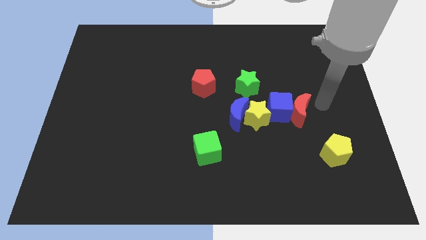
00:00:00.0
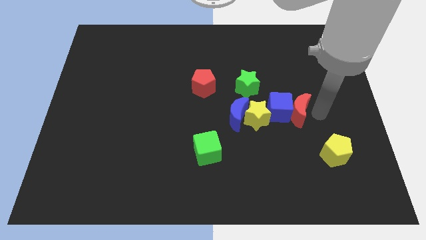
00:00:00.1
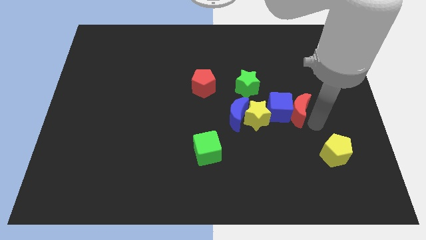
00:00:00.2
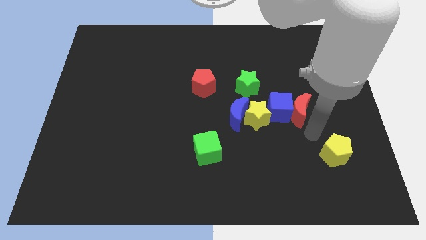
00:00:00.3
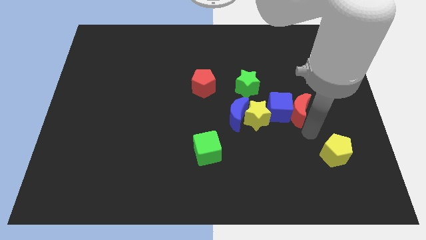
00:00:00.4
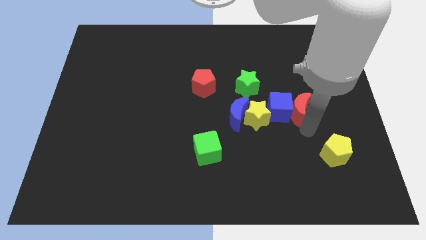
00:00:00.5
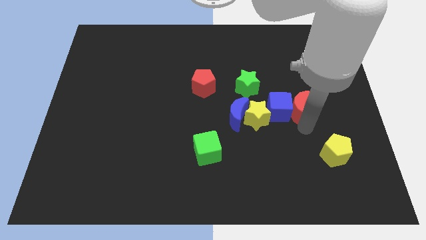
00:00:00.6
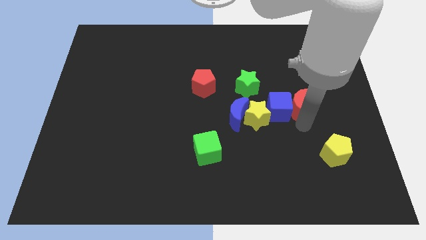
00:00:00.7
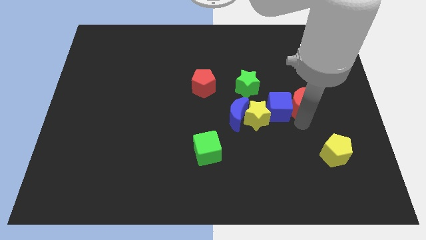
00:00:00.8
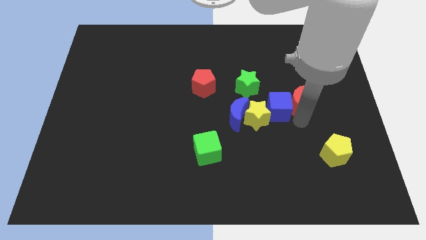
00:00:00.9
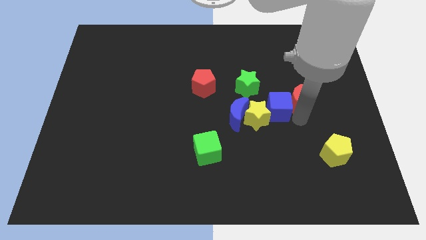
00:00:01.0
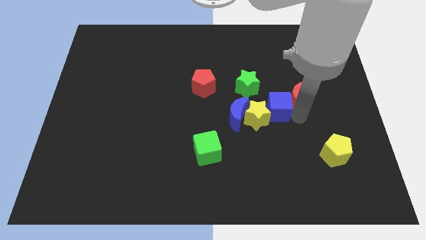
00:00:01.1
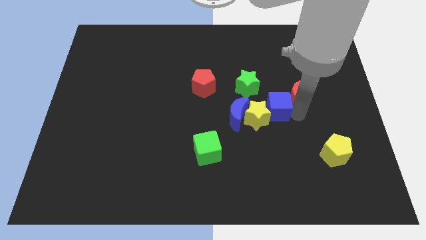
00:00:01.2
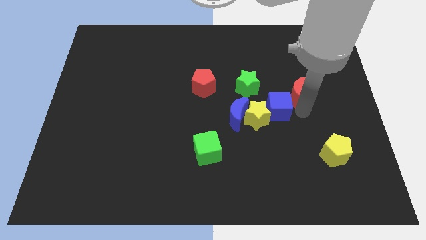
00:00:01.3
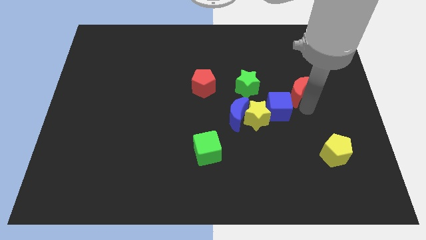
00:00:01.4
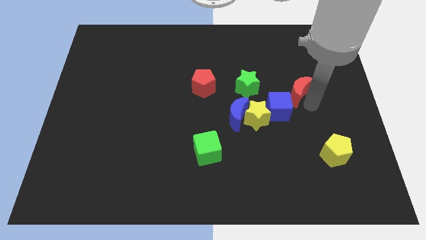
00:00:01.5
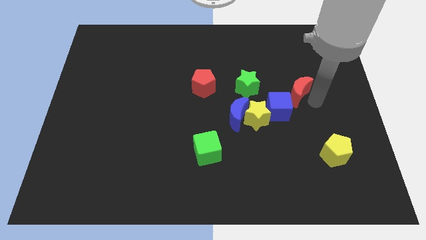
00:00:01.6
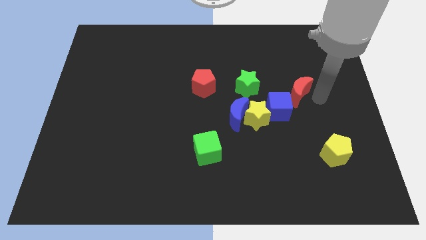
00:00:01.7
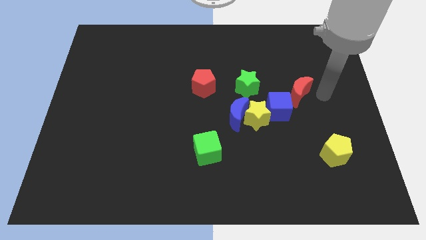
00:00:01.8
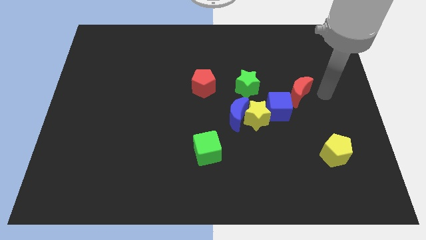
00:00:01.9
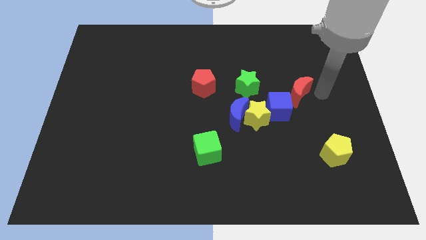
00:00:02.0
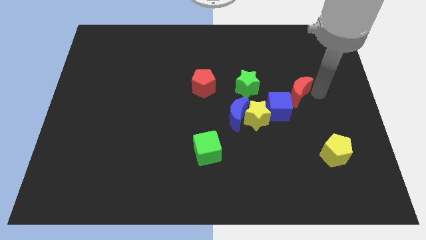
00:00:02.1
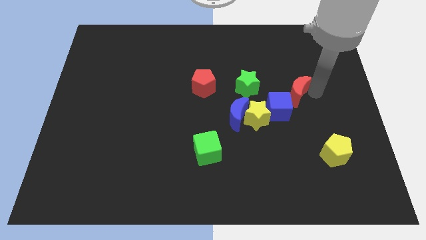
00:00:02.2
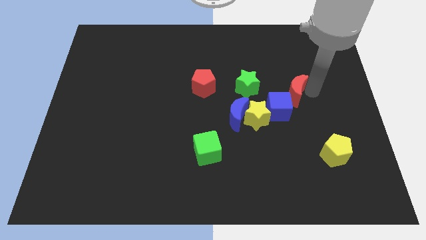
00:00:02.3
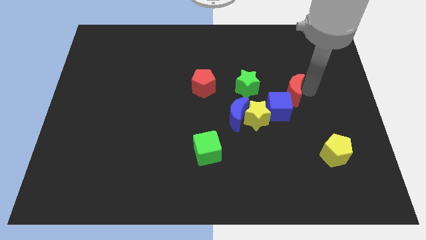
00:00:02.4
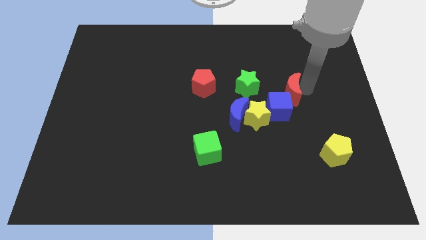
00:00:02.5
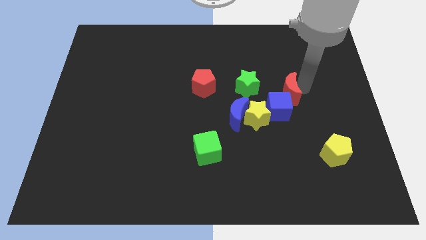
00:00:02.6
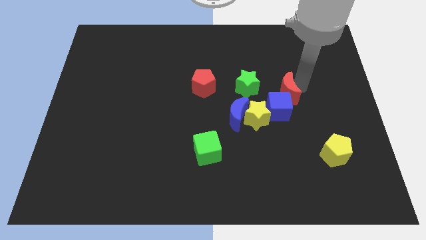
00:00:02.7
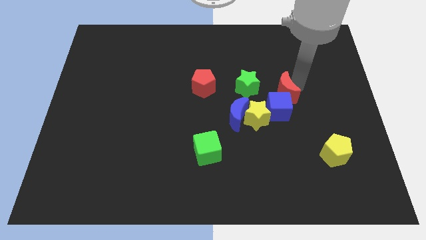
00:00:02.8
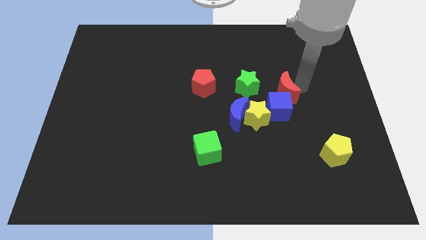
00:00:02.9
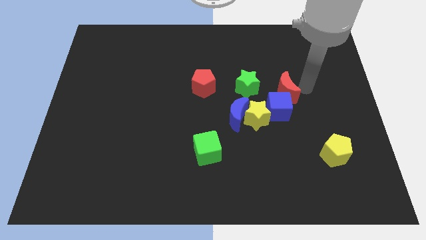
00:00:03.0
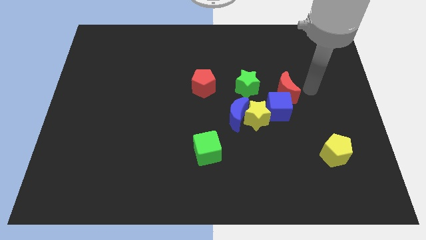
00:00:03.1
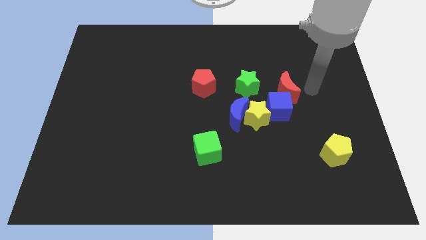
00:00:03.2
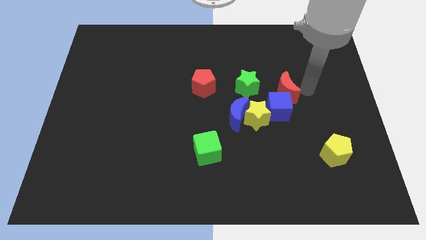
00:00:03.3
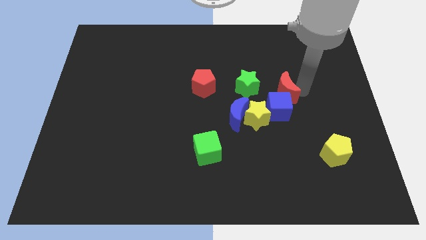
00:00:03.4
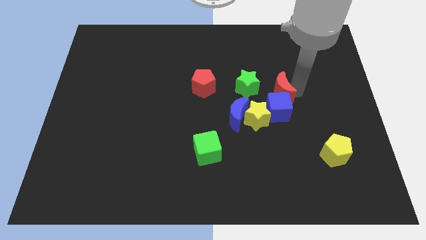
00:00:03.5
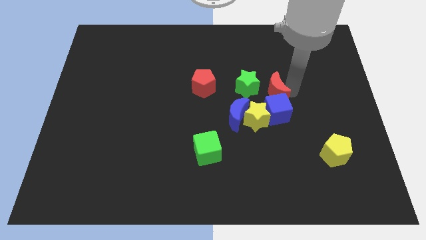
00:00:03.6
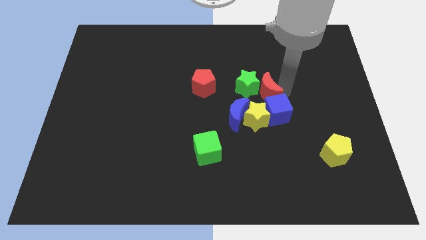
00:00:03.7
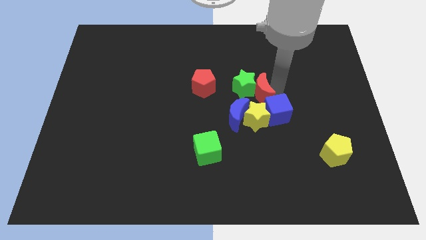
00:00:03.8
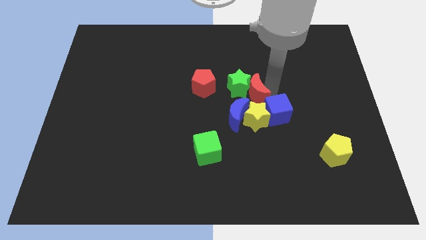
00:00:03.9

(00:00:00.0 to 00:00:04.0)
move the red moon slightly to the left

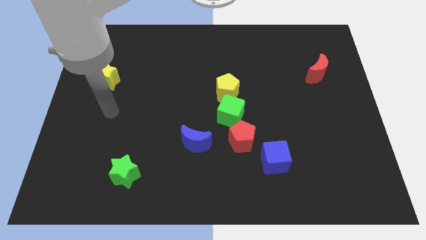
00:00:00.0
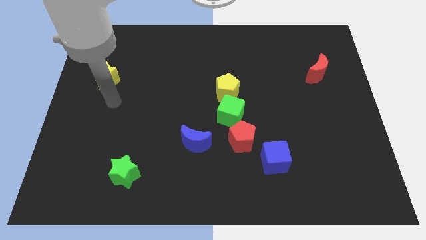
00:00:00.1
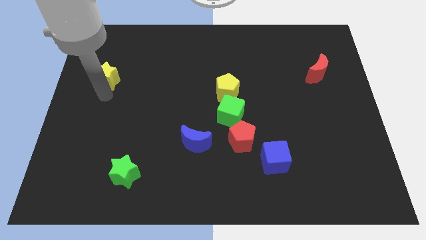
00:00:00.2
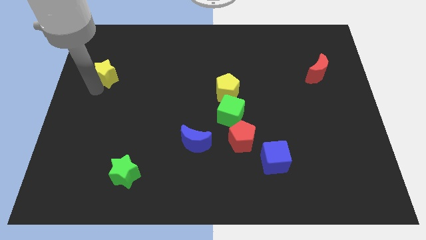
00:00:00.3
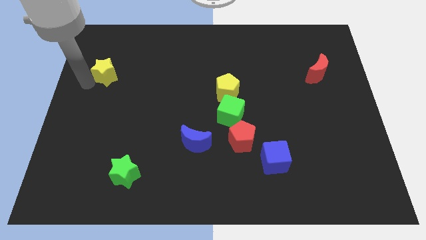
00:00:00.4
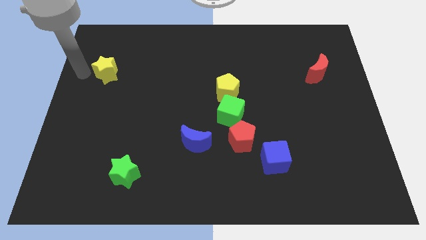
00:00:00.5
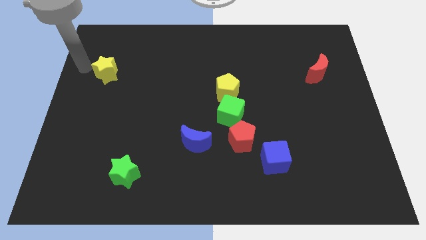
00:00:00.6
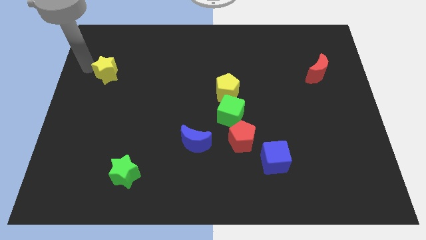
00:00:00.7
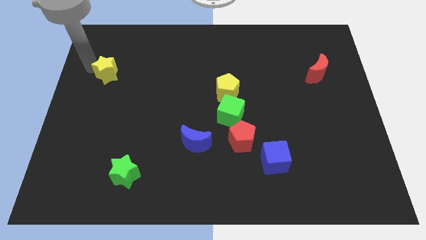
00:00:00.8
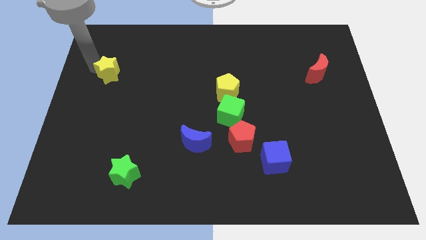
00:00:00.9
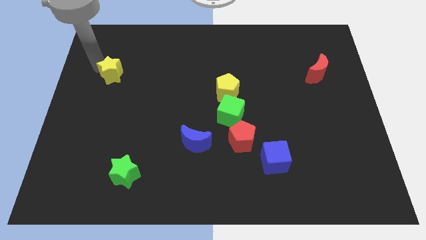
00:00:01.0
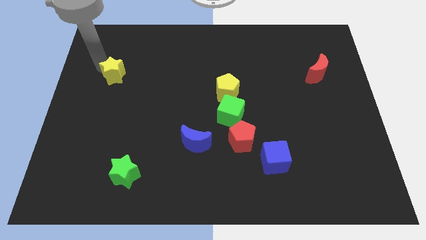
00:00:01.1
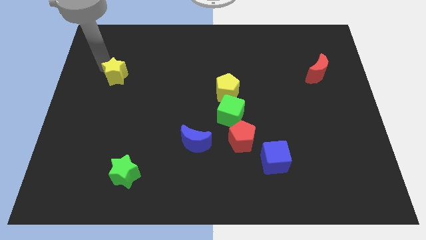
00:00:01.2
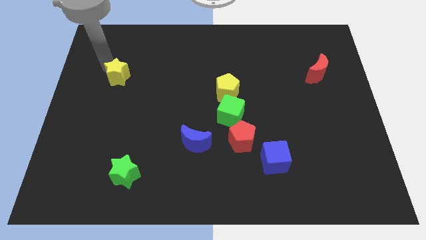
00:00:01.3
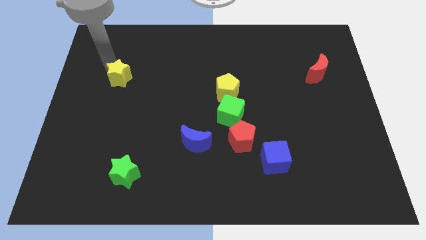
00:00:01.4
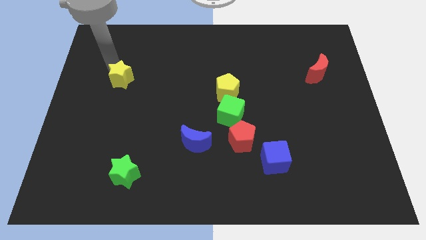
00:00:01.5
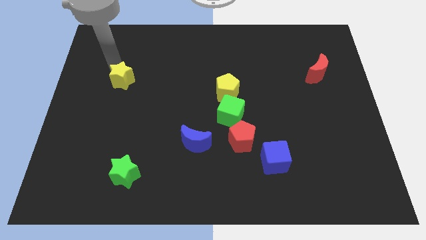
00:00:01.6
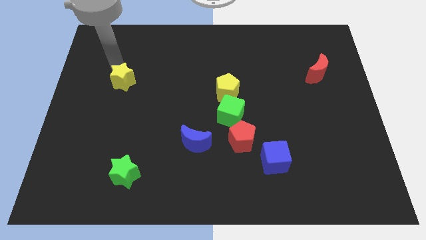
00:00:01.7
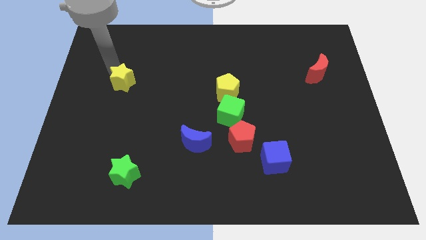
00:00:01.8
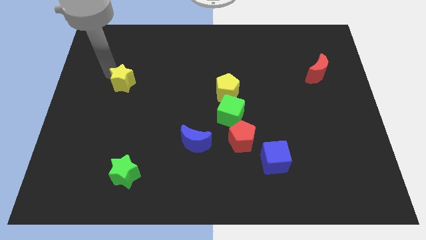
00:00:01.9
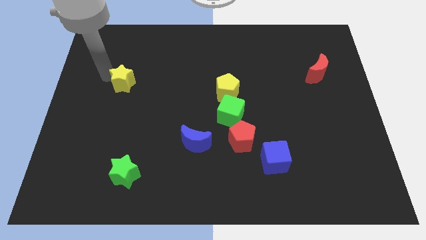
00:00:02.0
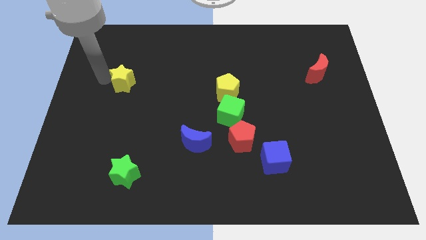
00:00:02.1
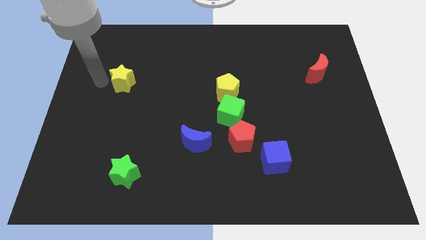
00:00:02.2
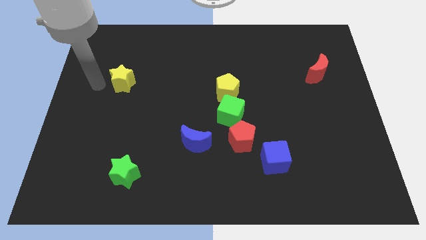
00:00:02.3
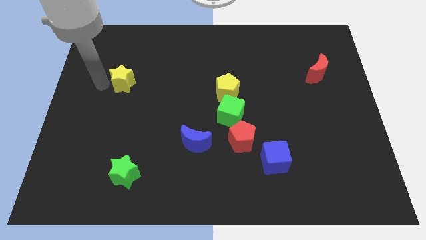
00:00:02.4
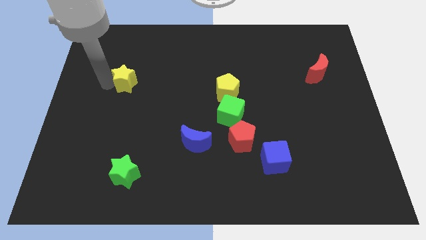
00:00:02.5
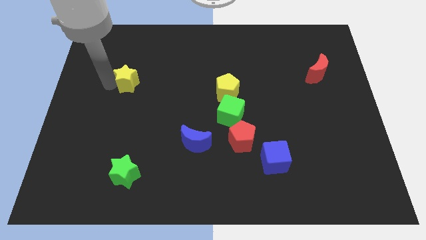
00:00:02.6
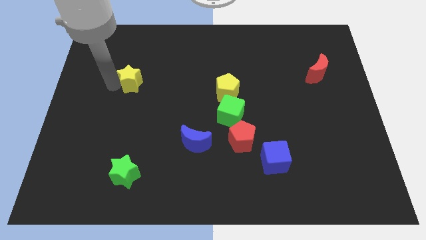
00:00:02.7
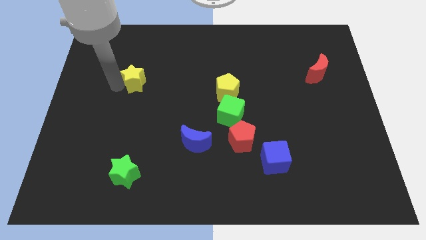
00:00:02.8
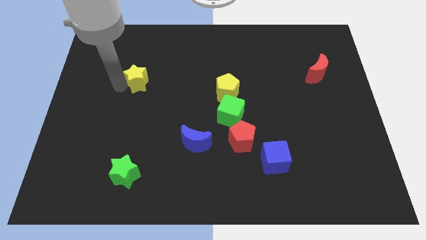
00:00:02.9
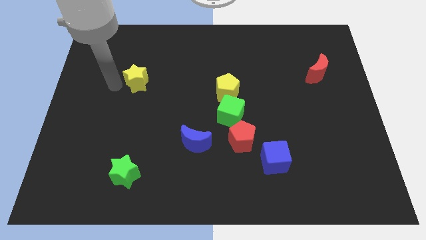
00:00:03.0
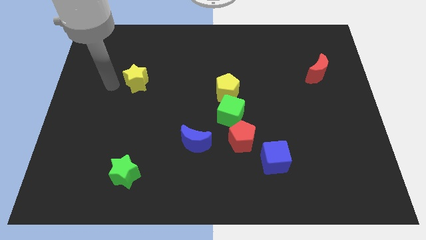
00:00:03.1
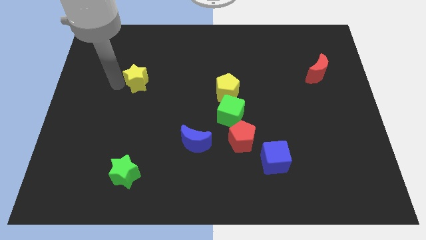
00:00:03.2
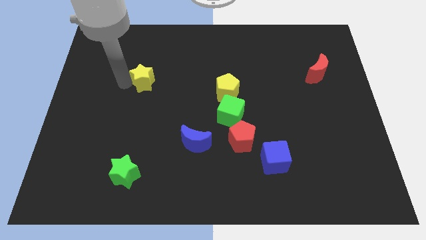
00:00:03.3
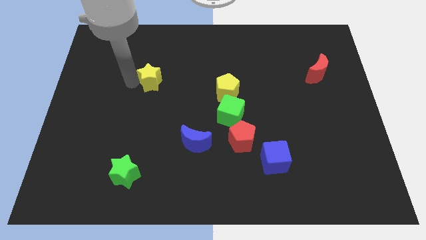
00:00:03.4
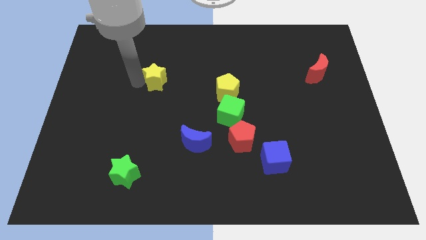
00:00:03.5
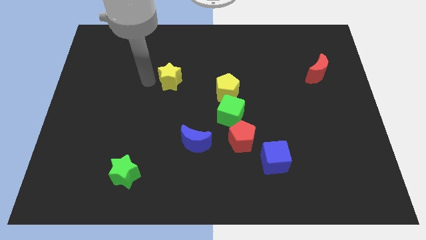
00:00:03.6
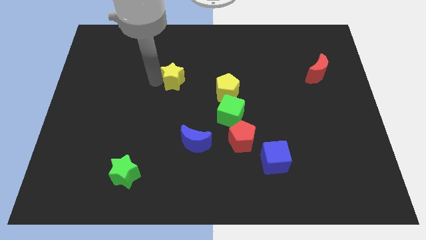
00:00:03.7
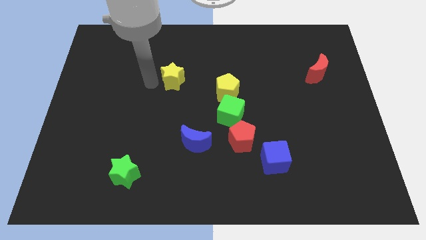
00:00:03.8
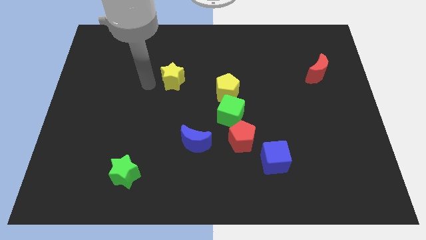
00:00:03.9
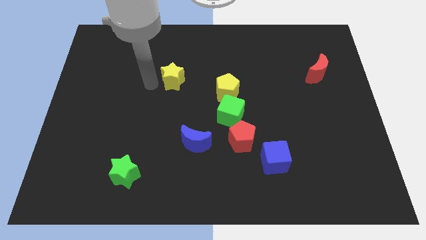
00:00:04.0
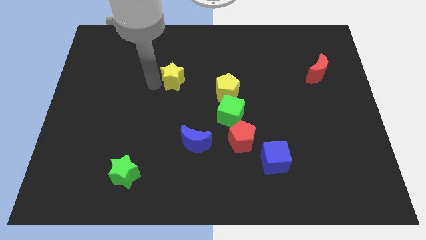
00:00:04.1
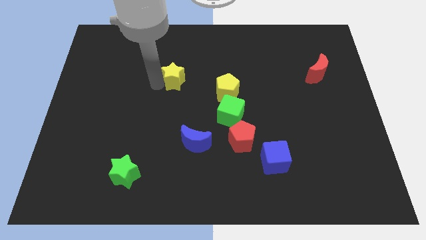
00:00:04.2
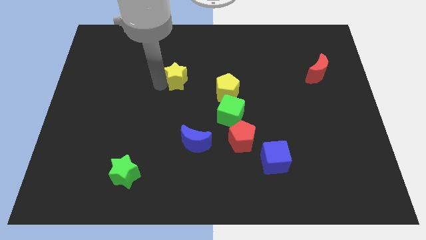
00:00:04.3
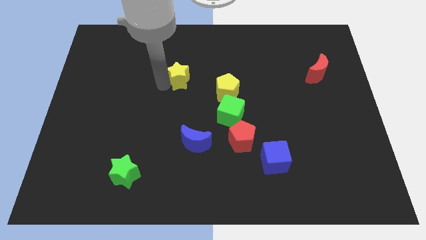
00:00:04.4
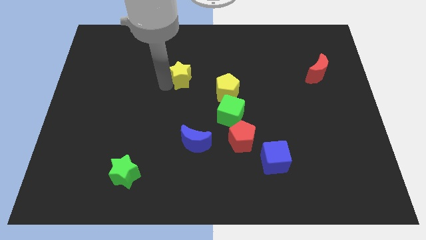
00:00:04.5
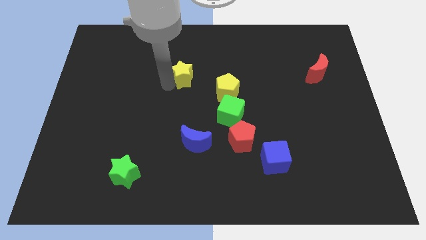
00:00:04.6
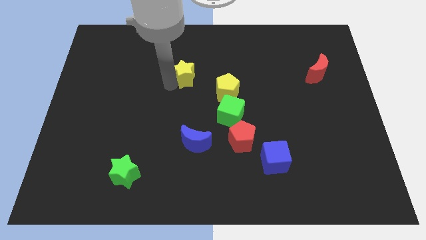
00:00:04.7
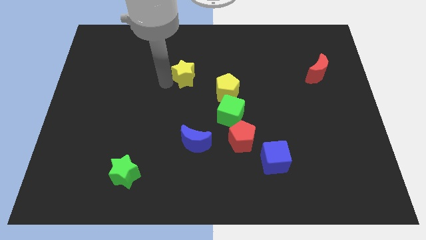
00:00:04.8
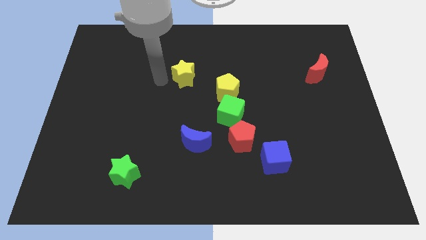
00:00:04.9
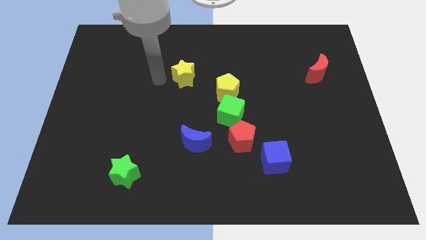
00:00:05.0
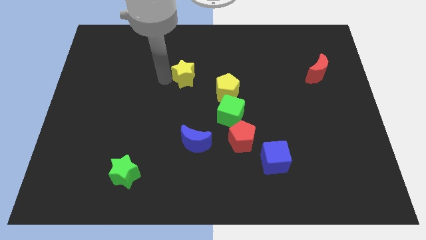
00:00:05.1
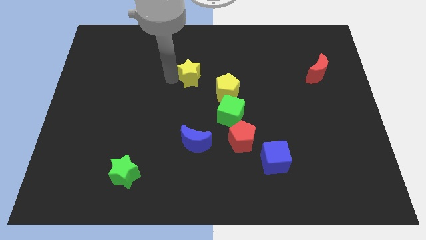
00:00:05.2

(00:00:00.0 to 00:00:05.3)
push the yellow star to the right
